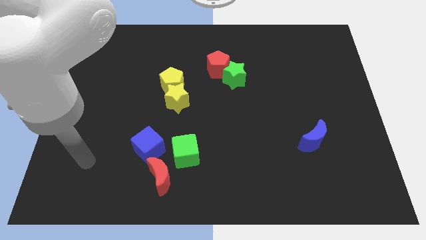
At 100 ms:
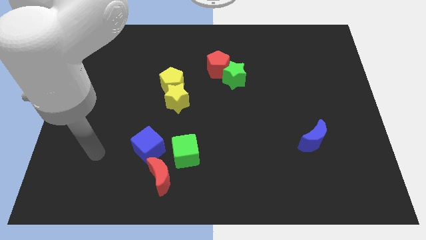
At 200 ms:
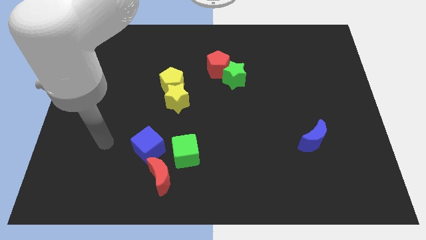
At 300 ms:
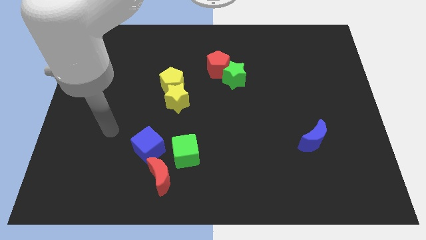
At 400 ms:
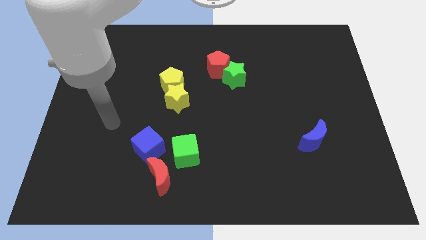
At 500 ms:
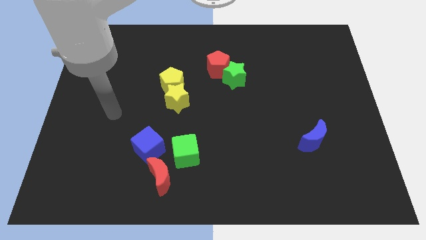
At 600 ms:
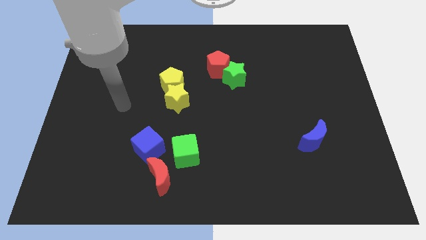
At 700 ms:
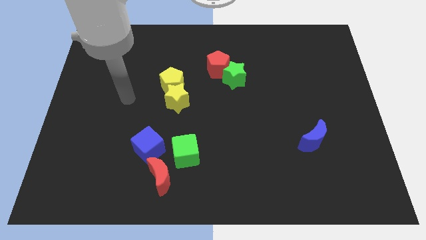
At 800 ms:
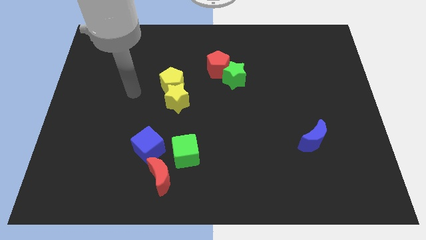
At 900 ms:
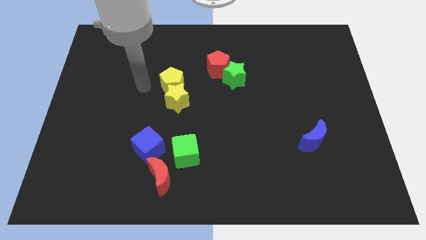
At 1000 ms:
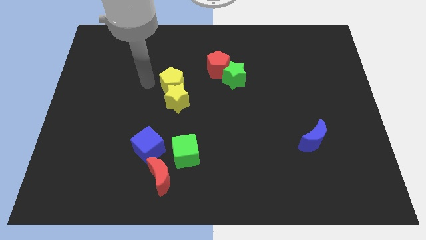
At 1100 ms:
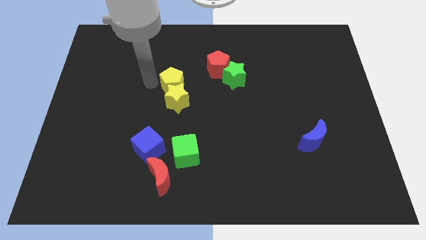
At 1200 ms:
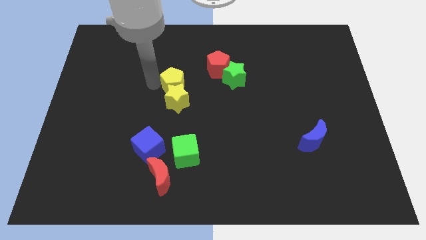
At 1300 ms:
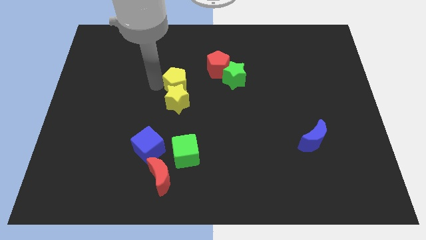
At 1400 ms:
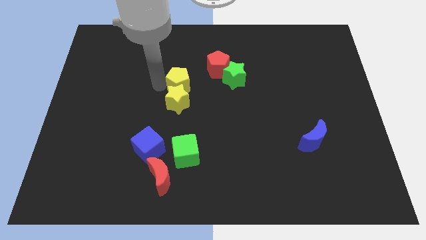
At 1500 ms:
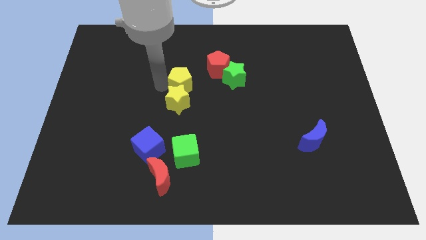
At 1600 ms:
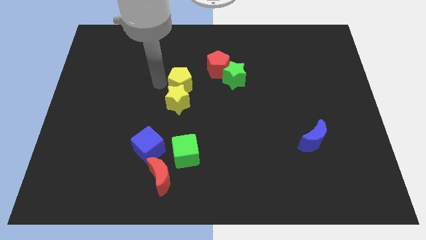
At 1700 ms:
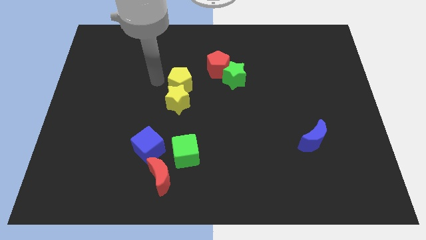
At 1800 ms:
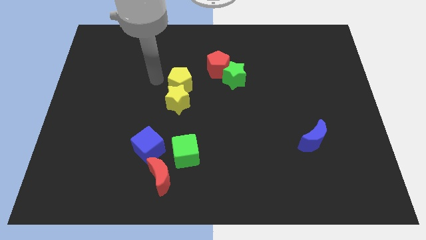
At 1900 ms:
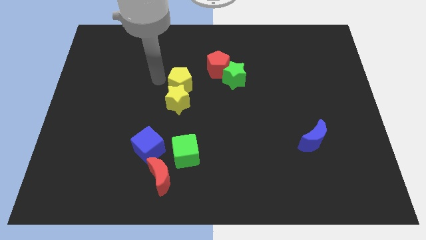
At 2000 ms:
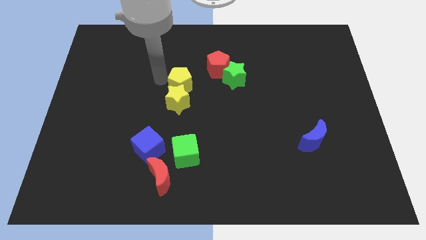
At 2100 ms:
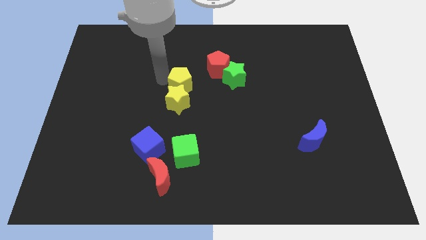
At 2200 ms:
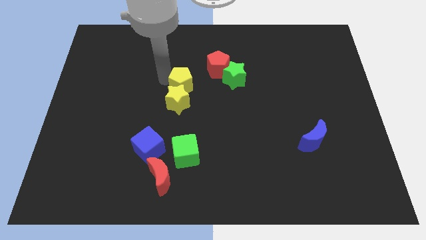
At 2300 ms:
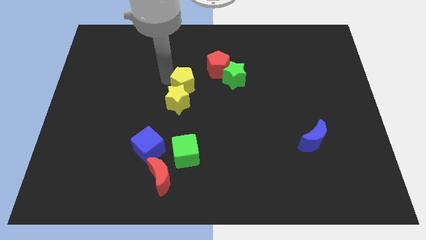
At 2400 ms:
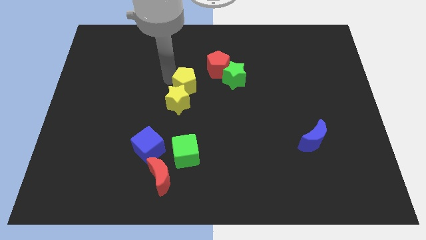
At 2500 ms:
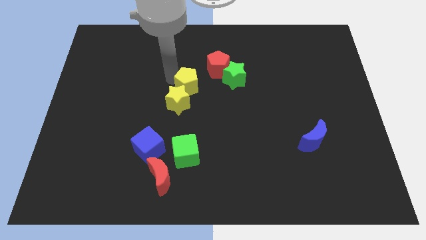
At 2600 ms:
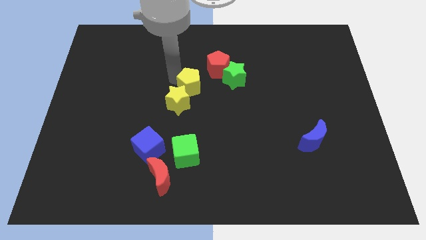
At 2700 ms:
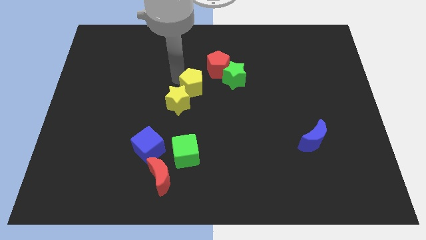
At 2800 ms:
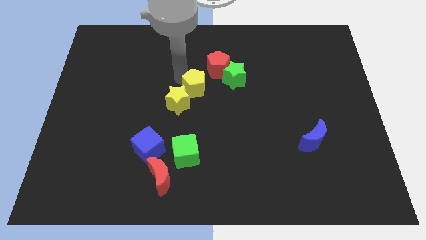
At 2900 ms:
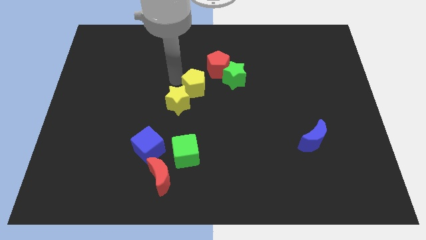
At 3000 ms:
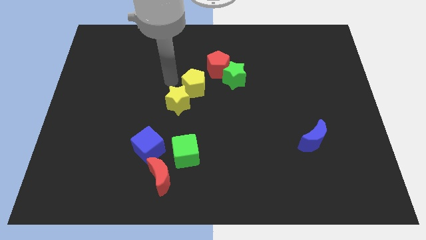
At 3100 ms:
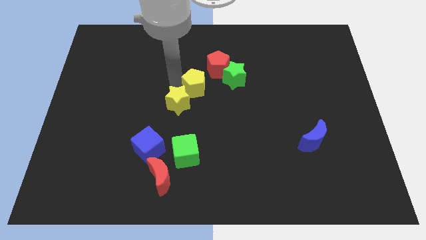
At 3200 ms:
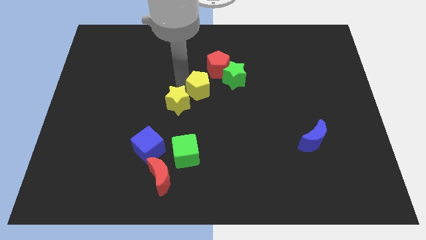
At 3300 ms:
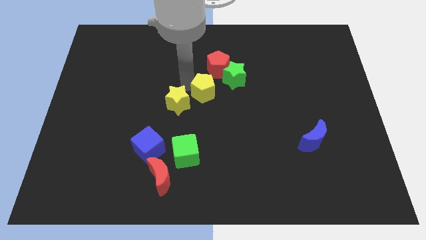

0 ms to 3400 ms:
slide the yellow pentagon right a little bit

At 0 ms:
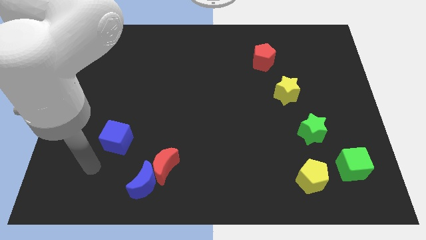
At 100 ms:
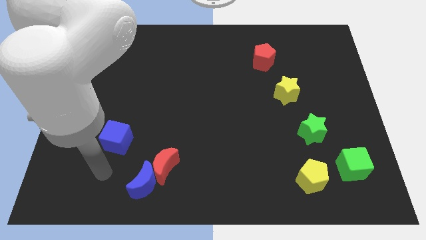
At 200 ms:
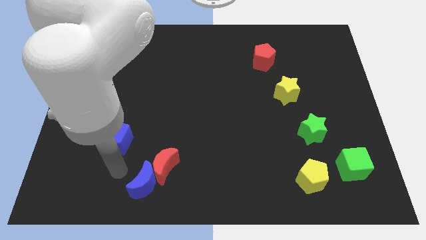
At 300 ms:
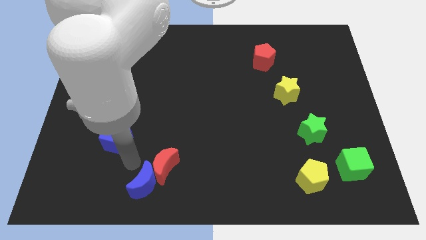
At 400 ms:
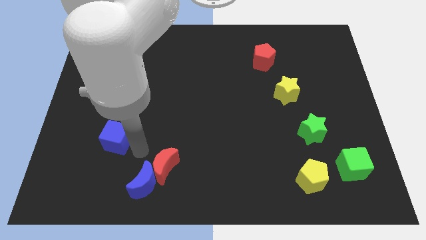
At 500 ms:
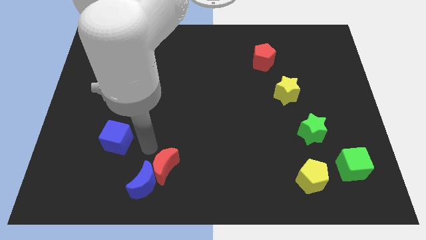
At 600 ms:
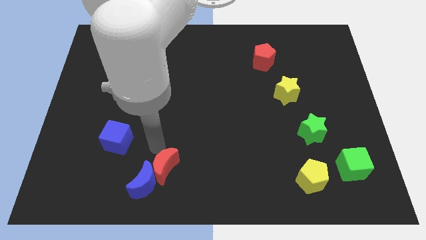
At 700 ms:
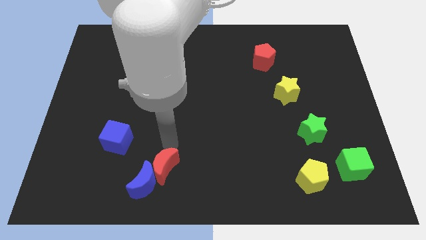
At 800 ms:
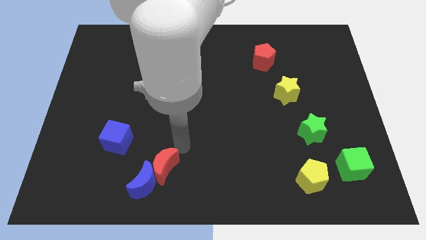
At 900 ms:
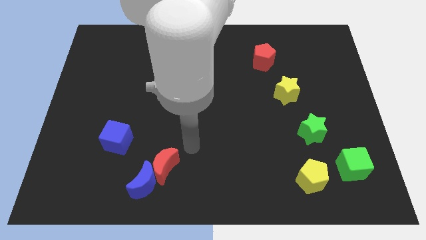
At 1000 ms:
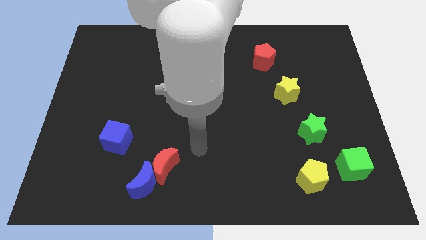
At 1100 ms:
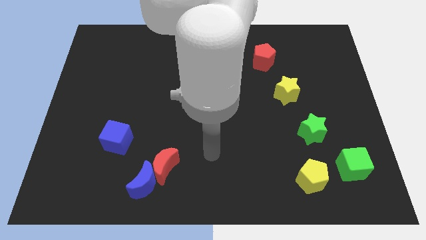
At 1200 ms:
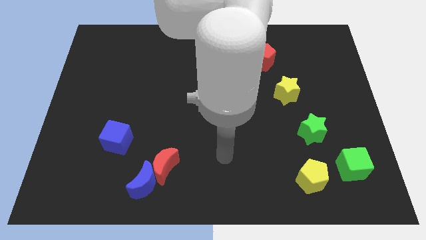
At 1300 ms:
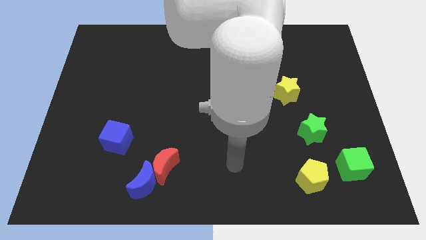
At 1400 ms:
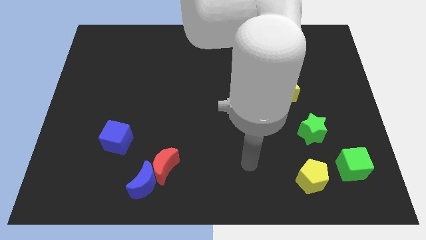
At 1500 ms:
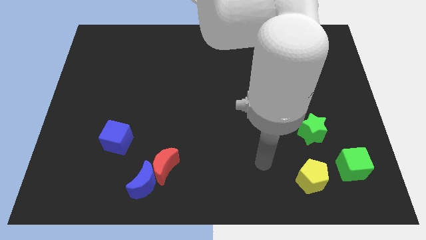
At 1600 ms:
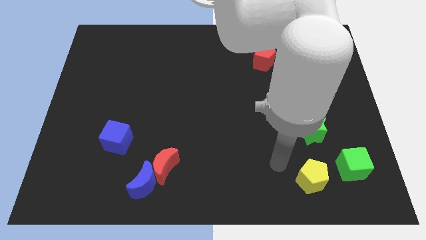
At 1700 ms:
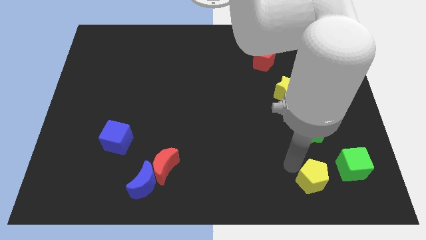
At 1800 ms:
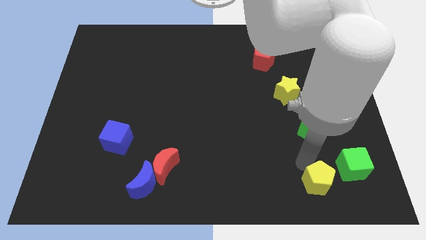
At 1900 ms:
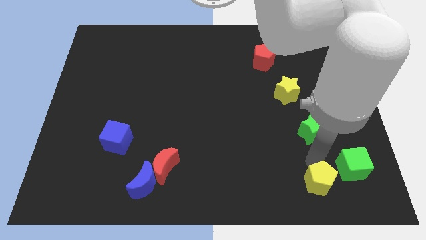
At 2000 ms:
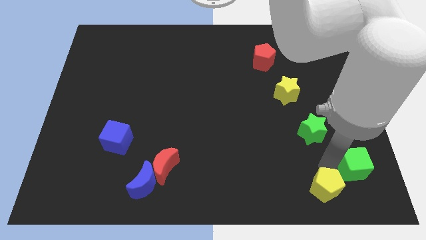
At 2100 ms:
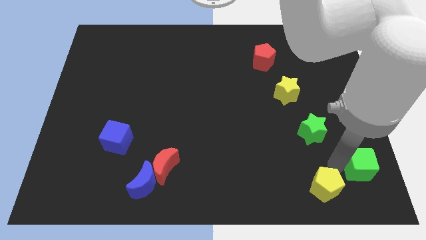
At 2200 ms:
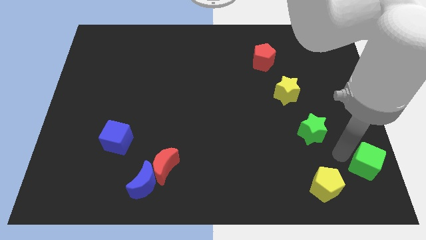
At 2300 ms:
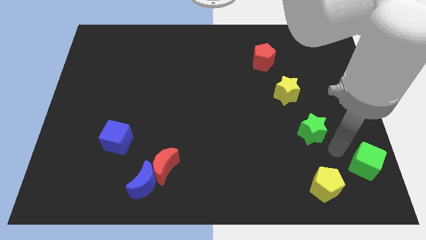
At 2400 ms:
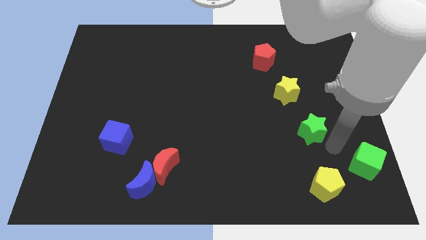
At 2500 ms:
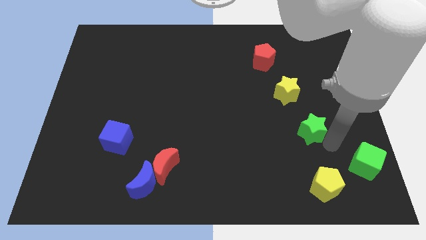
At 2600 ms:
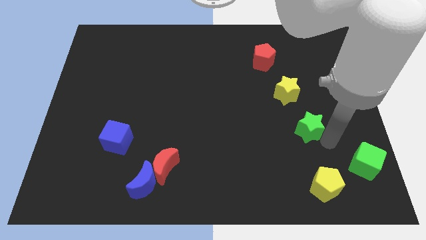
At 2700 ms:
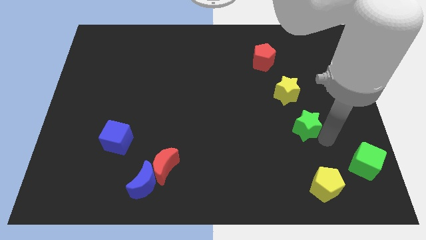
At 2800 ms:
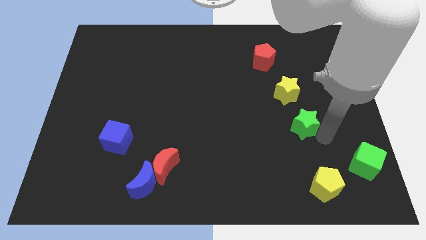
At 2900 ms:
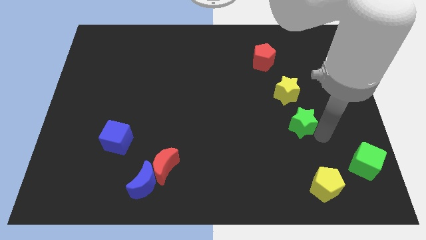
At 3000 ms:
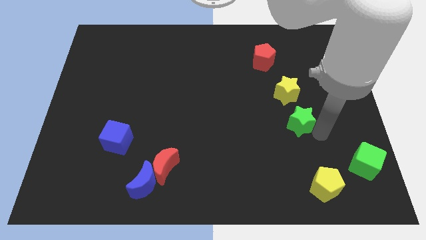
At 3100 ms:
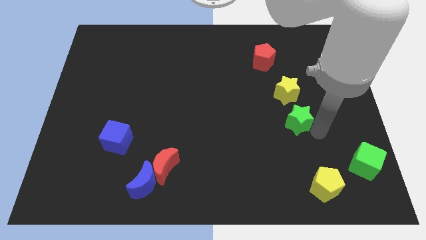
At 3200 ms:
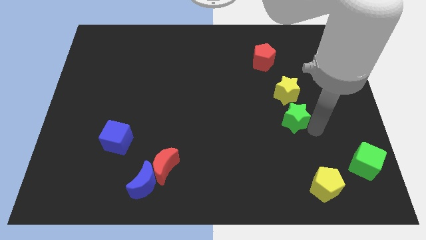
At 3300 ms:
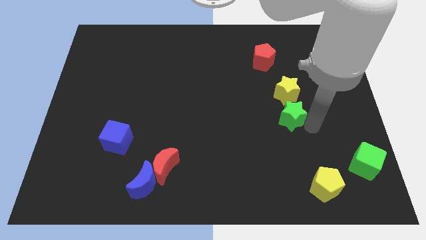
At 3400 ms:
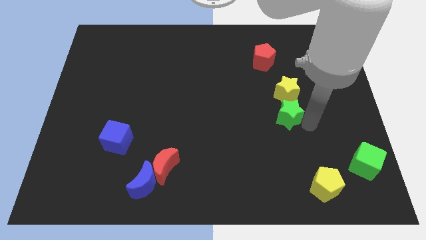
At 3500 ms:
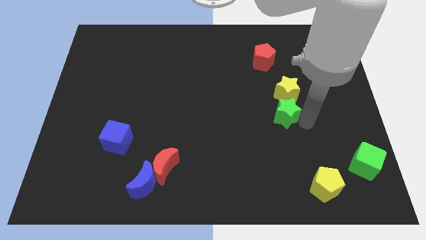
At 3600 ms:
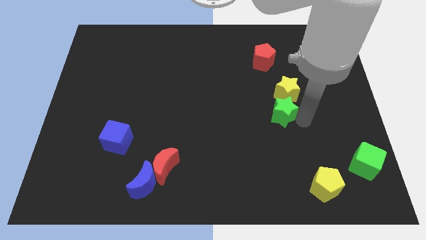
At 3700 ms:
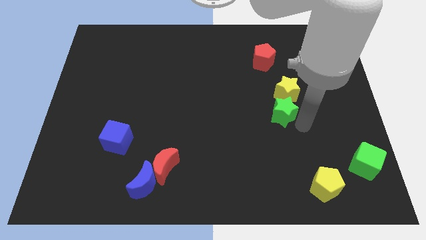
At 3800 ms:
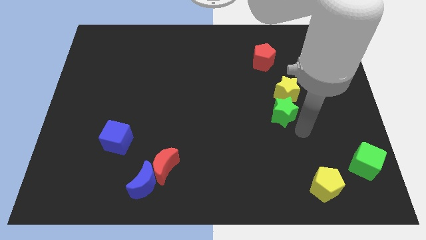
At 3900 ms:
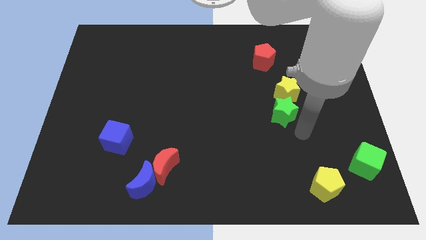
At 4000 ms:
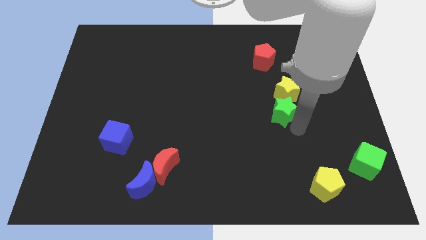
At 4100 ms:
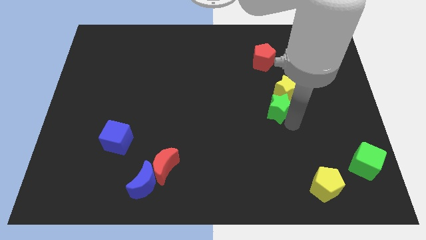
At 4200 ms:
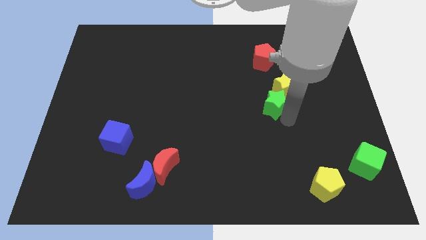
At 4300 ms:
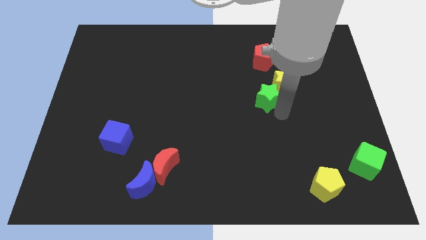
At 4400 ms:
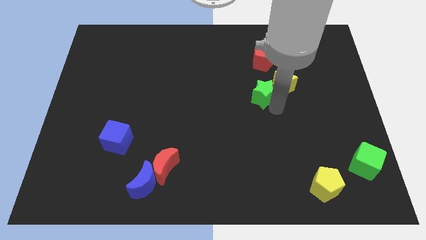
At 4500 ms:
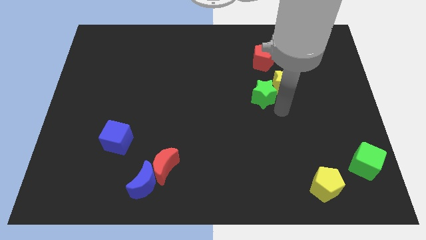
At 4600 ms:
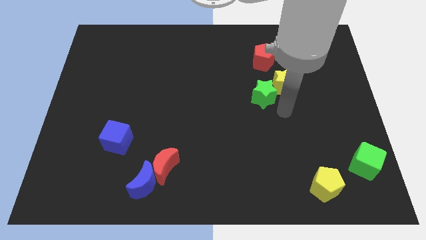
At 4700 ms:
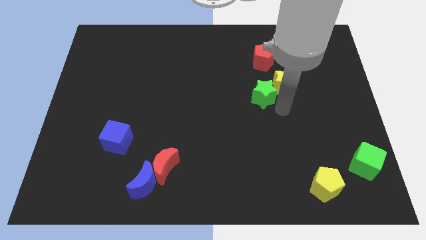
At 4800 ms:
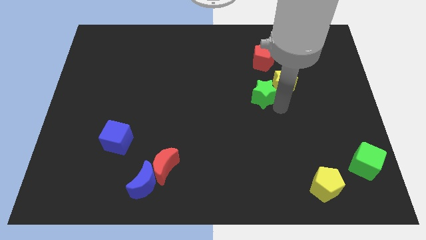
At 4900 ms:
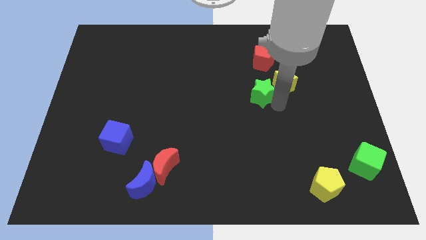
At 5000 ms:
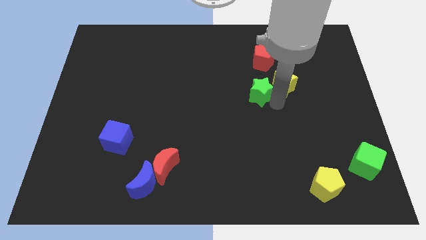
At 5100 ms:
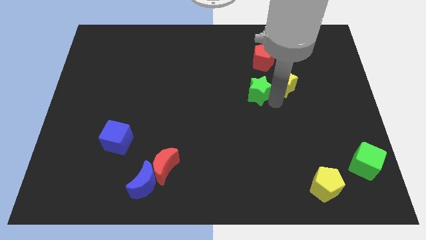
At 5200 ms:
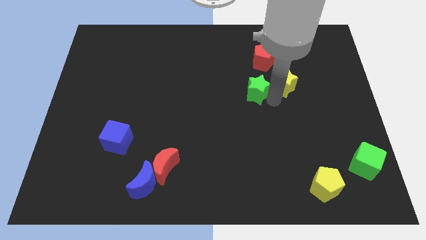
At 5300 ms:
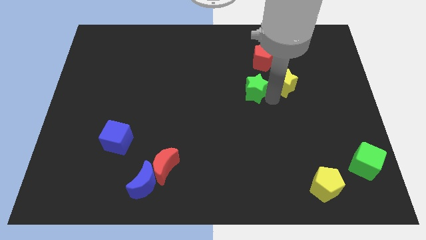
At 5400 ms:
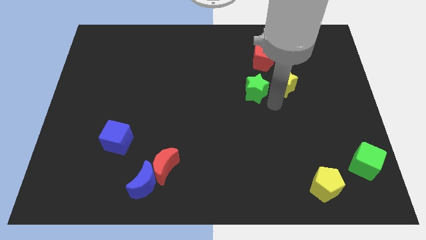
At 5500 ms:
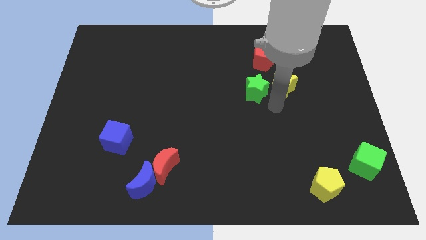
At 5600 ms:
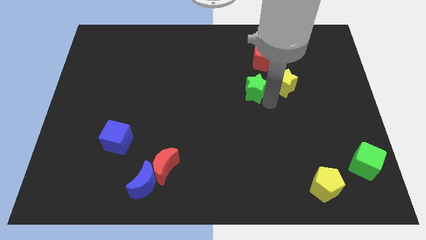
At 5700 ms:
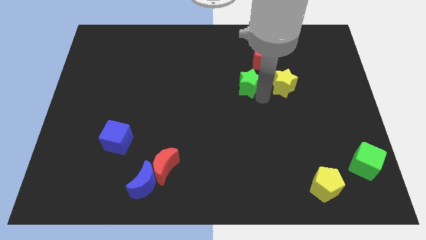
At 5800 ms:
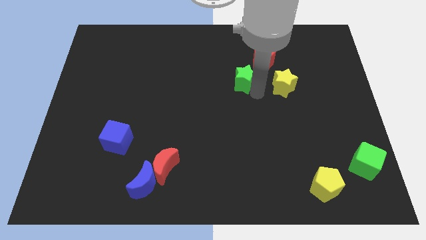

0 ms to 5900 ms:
push the green star upwards and to the left
